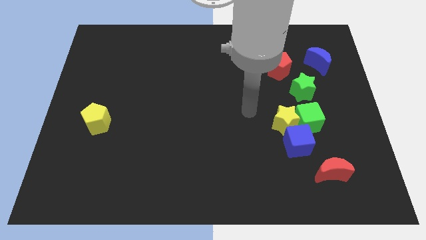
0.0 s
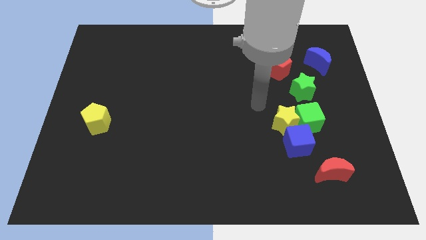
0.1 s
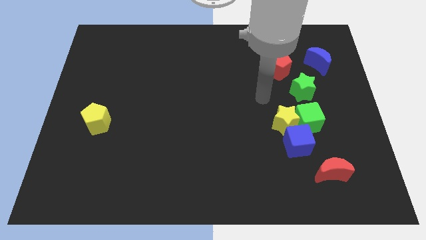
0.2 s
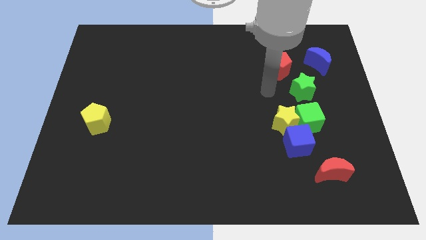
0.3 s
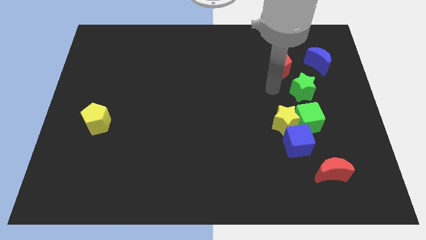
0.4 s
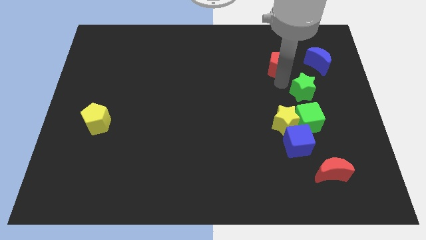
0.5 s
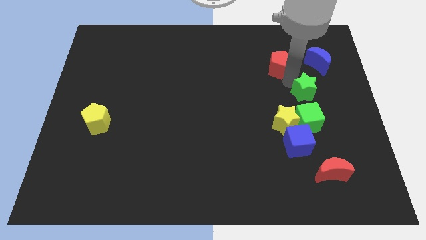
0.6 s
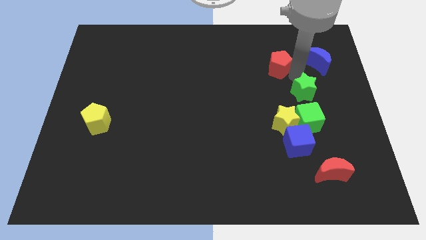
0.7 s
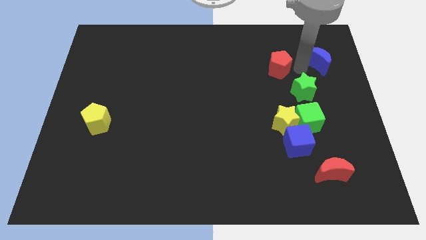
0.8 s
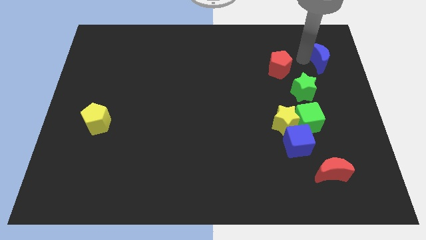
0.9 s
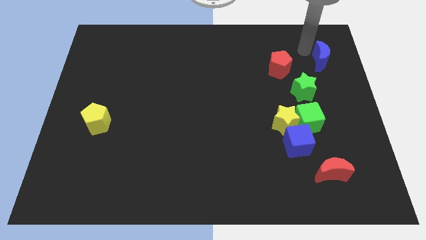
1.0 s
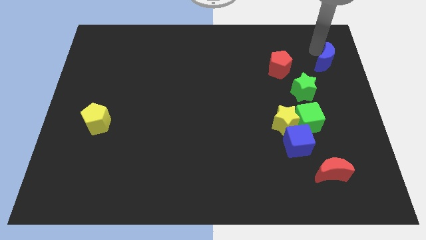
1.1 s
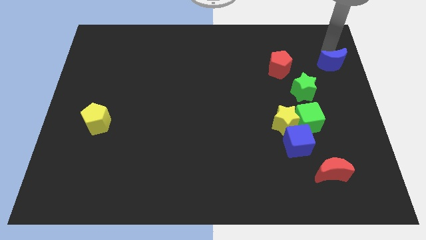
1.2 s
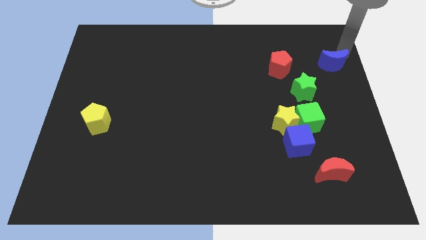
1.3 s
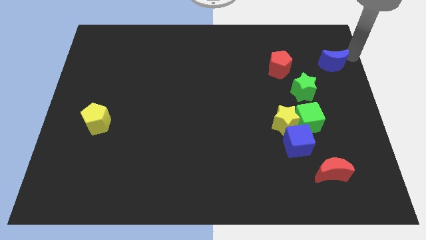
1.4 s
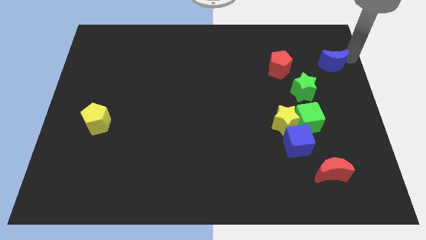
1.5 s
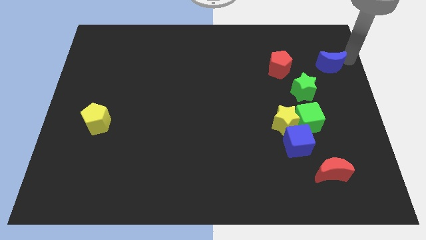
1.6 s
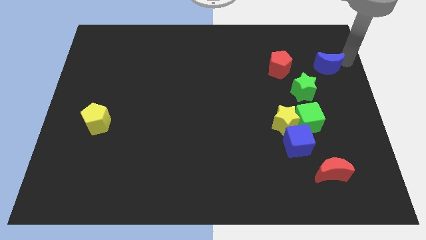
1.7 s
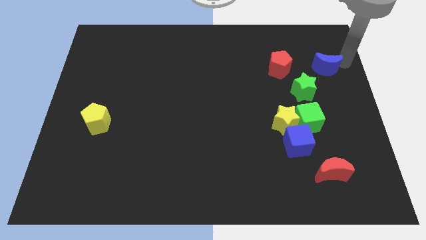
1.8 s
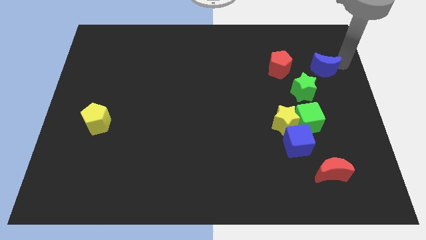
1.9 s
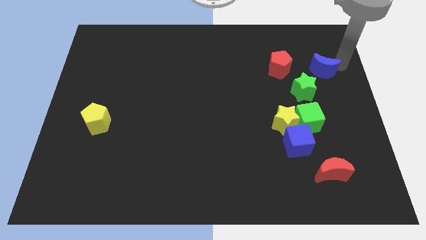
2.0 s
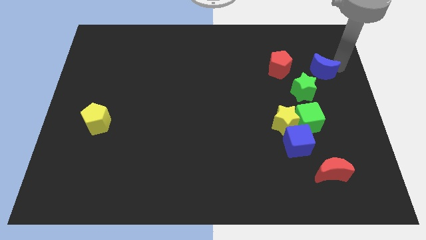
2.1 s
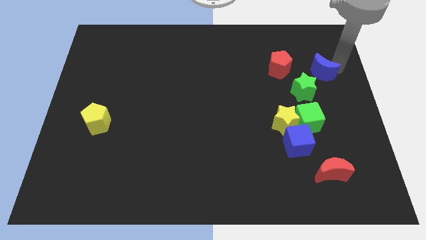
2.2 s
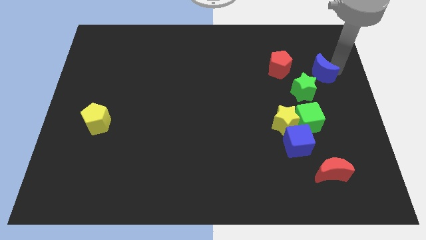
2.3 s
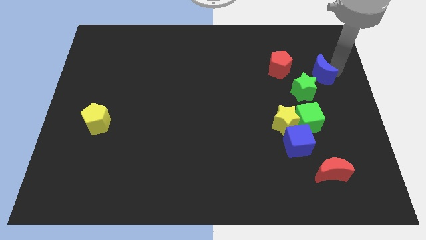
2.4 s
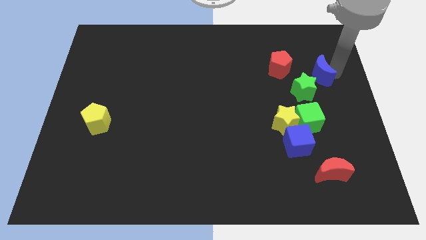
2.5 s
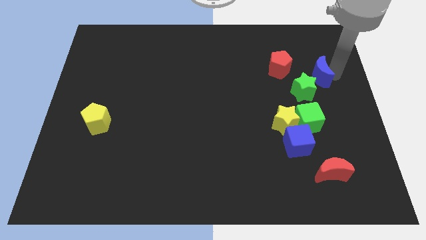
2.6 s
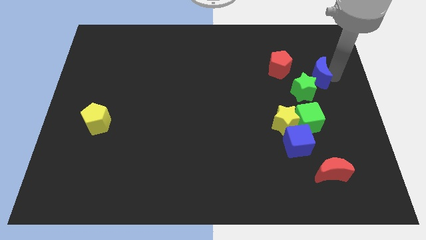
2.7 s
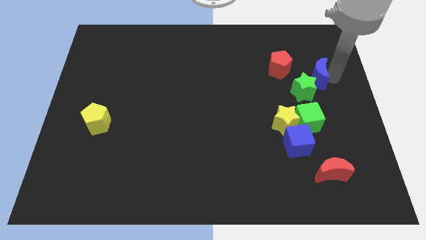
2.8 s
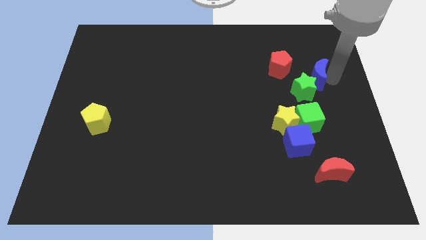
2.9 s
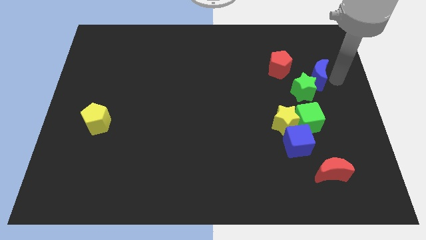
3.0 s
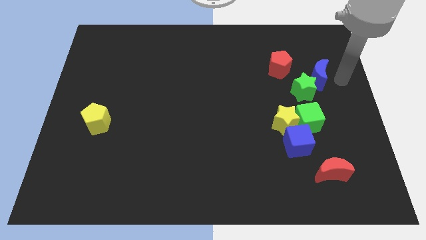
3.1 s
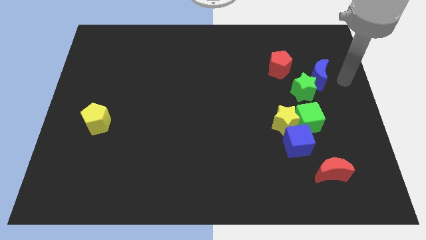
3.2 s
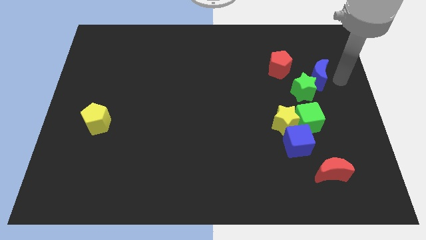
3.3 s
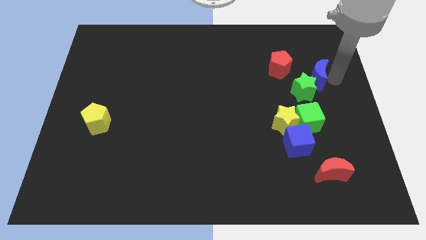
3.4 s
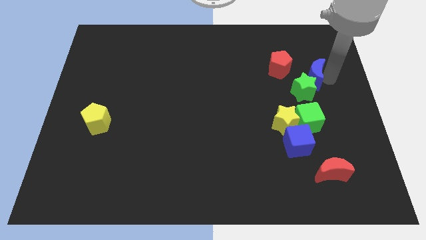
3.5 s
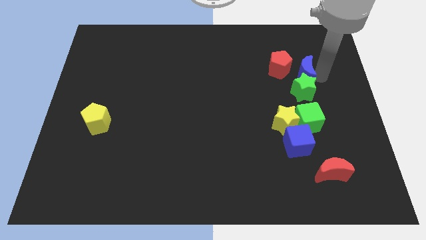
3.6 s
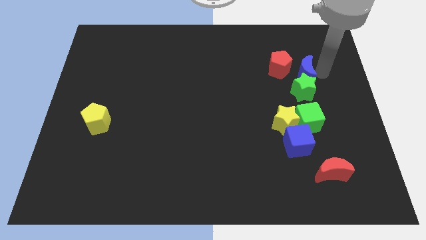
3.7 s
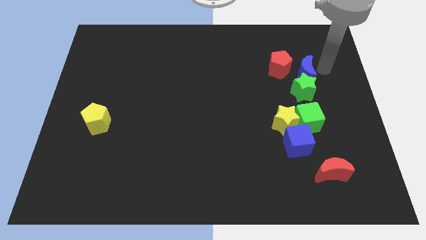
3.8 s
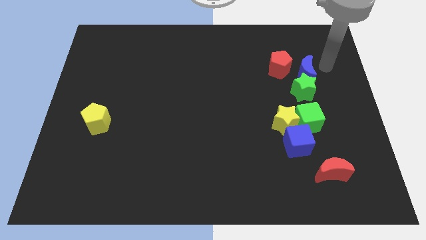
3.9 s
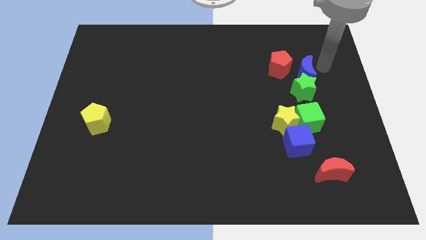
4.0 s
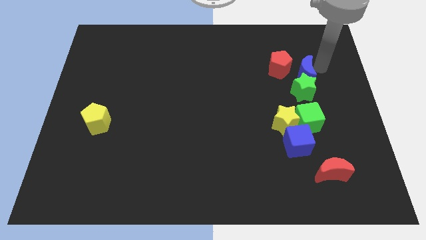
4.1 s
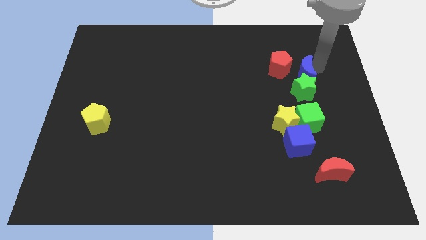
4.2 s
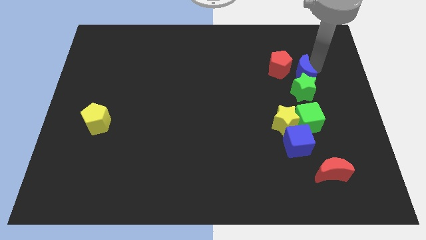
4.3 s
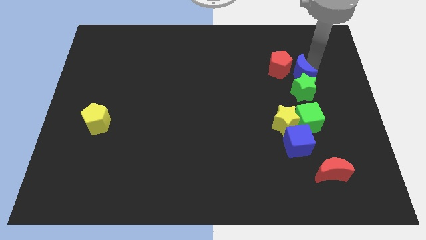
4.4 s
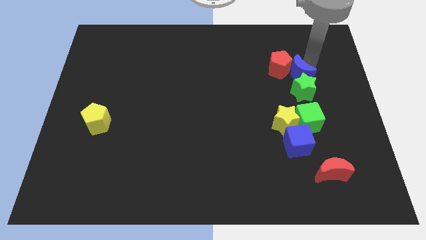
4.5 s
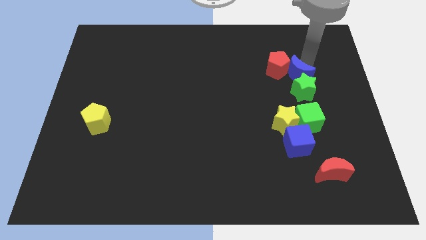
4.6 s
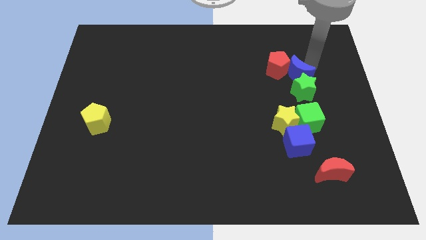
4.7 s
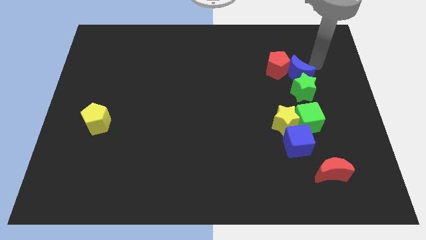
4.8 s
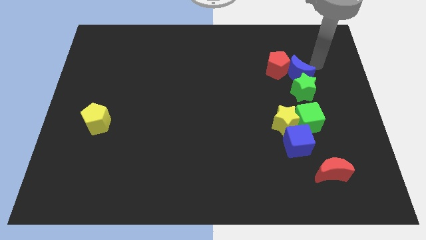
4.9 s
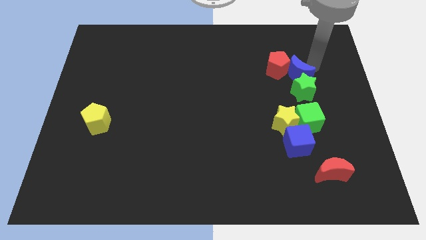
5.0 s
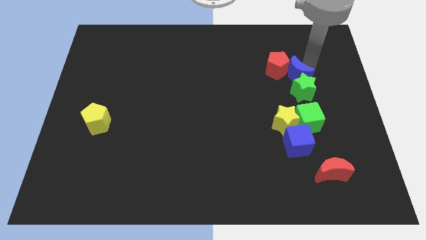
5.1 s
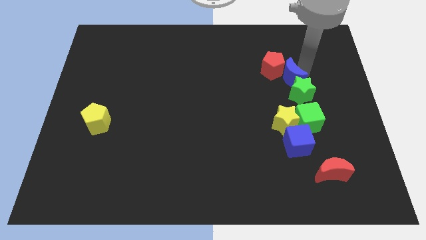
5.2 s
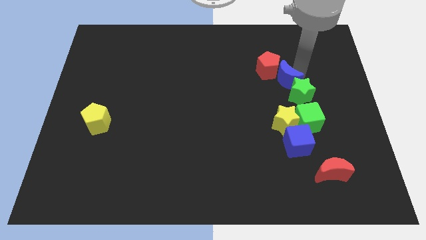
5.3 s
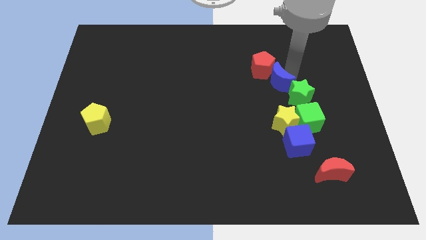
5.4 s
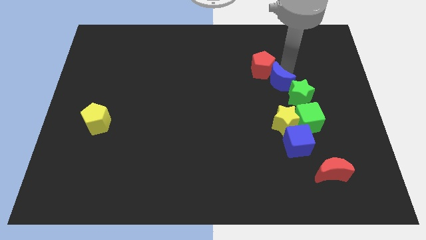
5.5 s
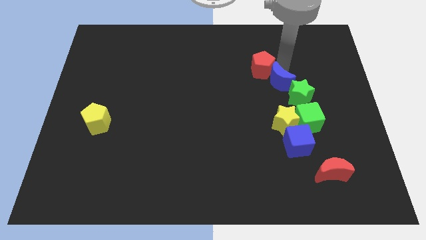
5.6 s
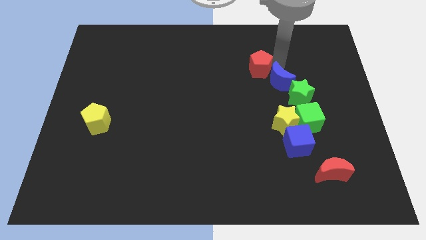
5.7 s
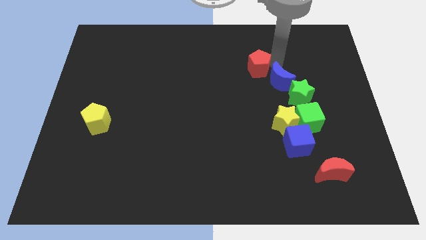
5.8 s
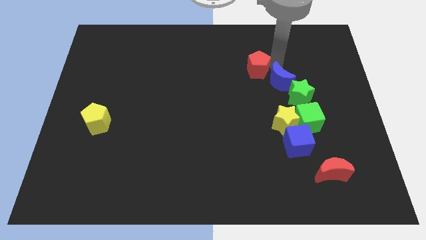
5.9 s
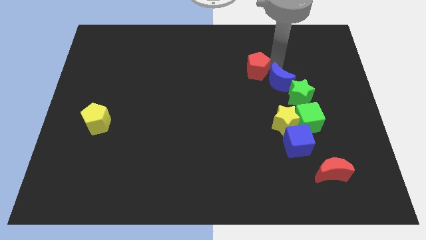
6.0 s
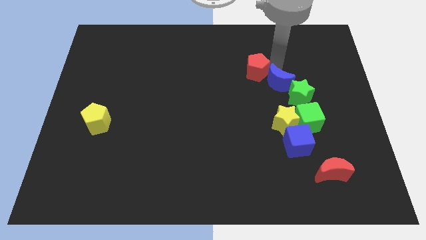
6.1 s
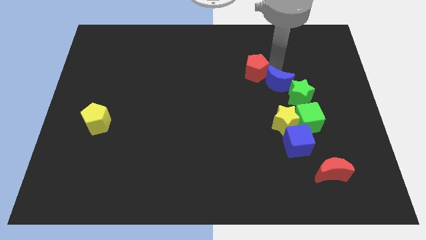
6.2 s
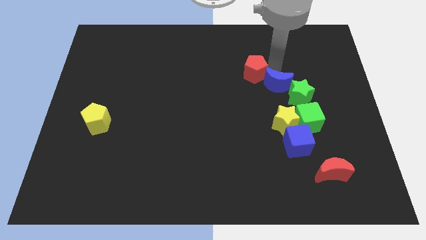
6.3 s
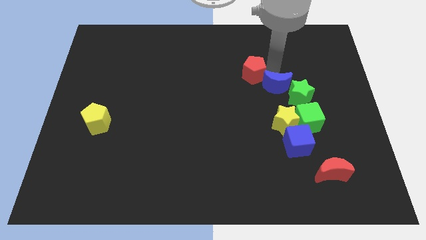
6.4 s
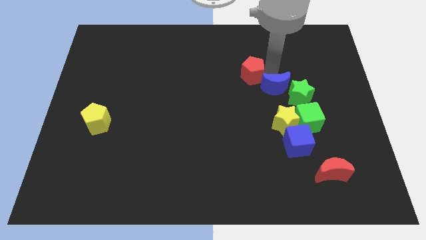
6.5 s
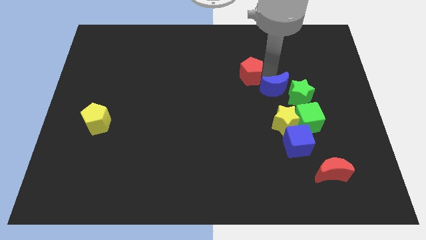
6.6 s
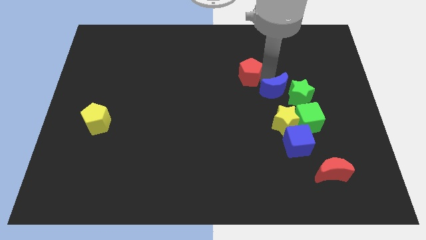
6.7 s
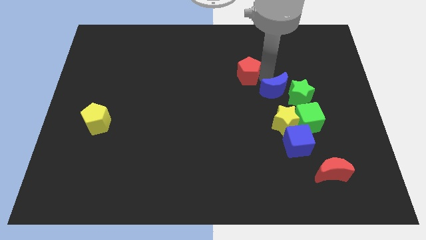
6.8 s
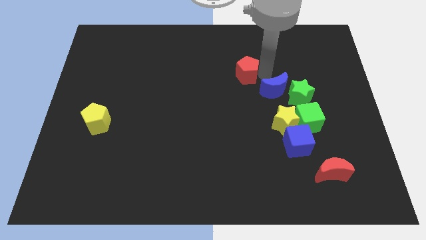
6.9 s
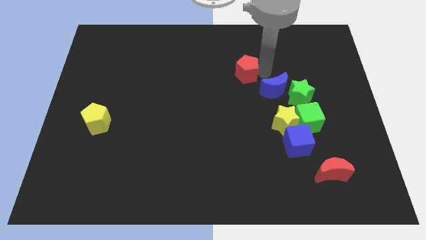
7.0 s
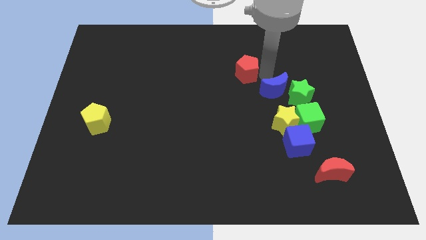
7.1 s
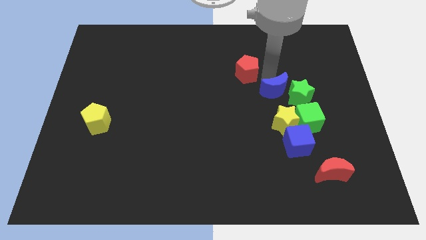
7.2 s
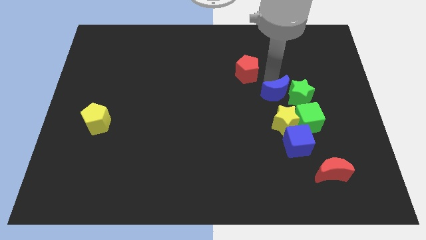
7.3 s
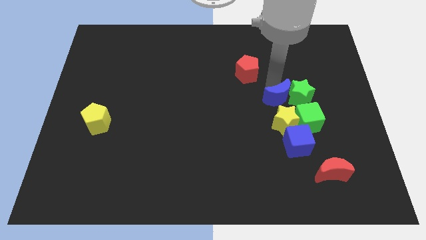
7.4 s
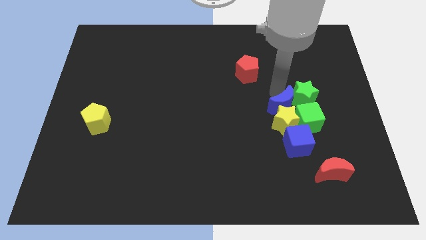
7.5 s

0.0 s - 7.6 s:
move the blue moon to the yellow star
